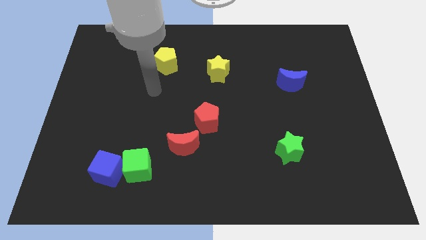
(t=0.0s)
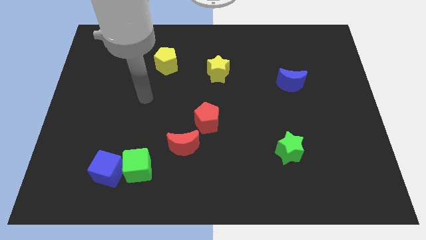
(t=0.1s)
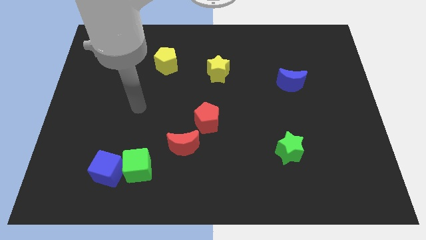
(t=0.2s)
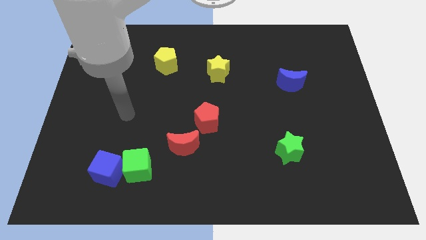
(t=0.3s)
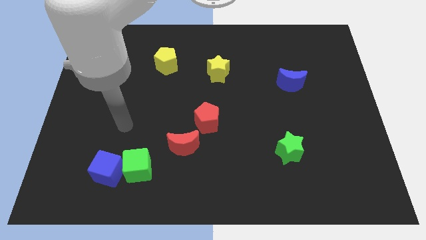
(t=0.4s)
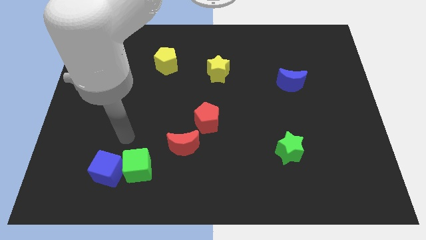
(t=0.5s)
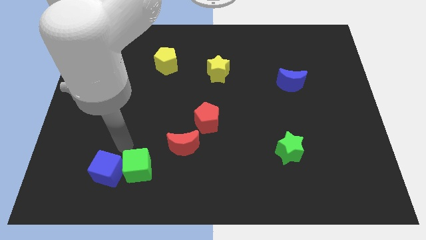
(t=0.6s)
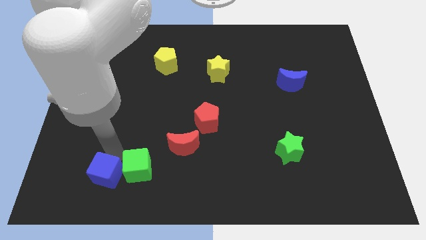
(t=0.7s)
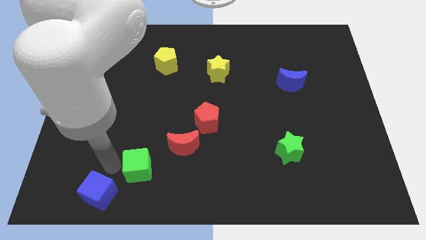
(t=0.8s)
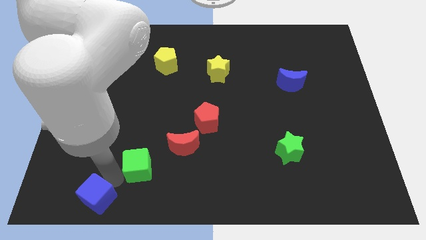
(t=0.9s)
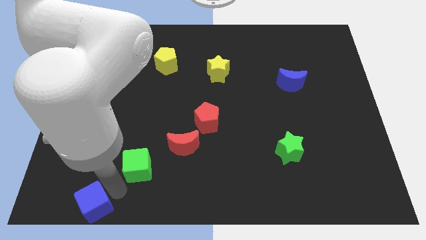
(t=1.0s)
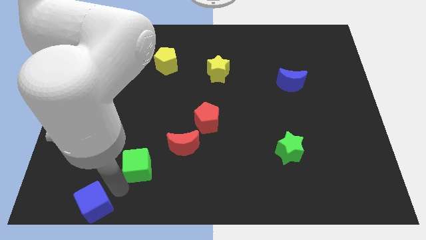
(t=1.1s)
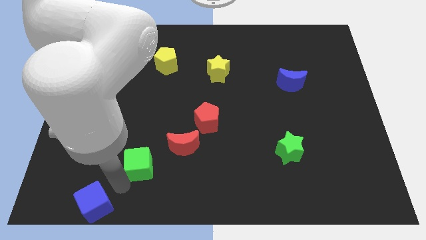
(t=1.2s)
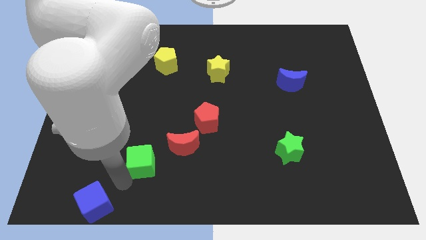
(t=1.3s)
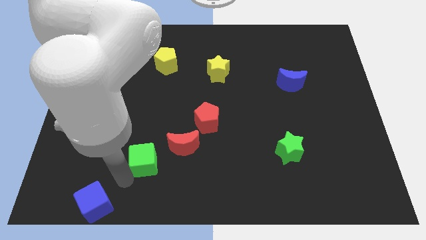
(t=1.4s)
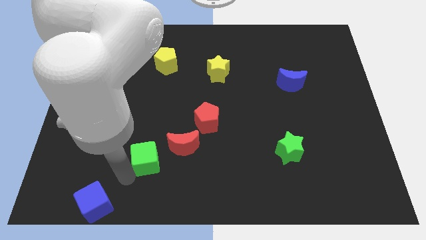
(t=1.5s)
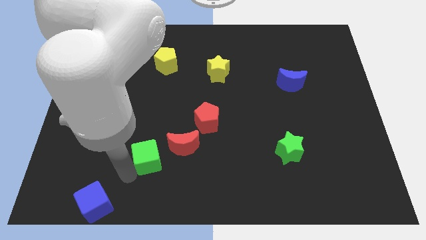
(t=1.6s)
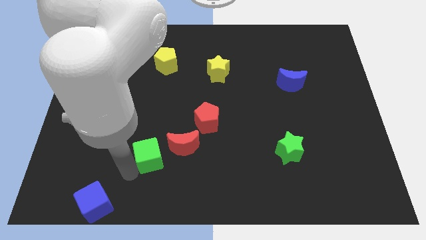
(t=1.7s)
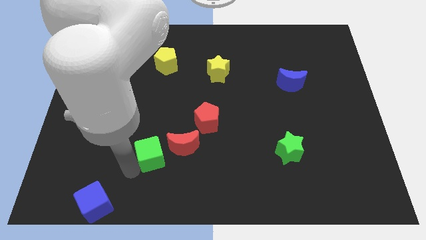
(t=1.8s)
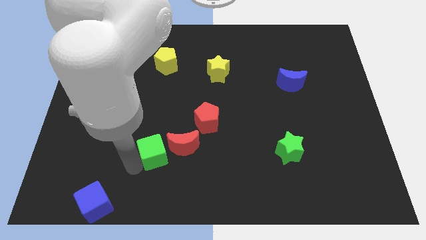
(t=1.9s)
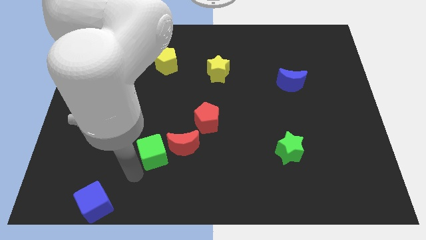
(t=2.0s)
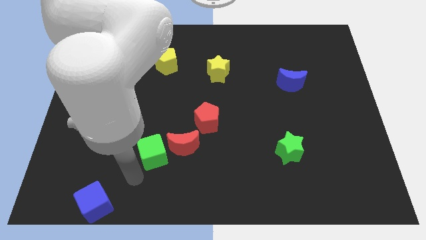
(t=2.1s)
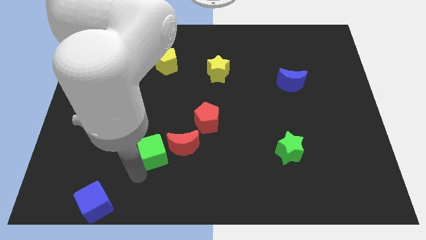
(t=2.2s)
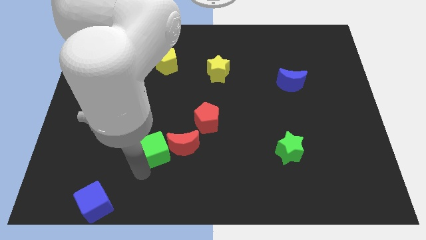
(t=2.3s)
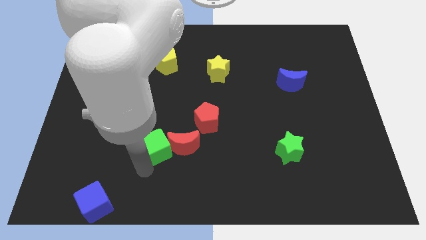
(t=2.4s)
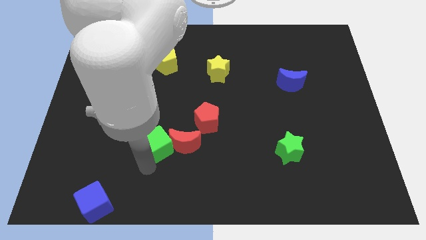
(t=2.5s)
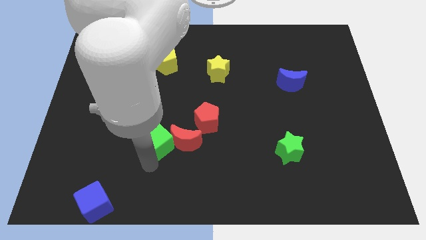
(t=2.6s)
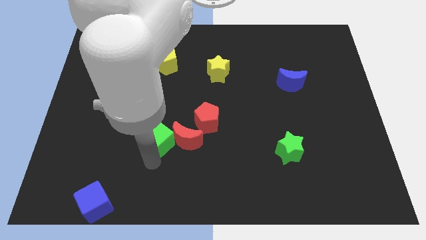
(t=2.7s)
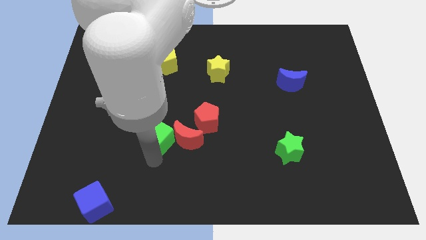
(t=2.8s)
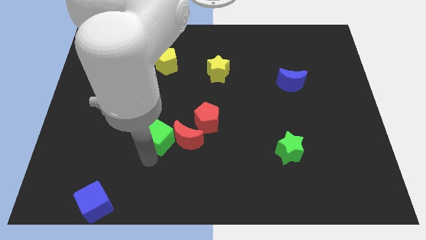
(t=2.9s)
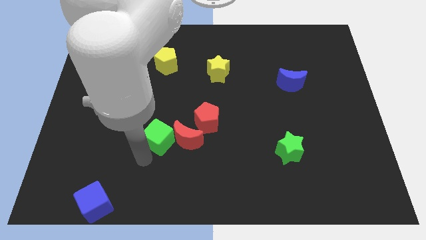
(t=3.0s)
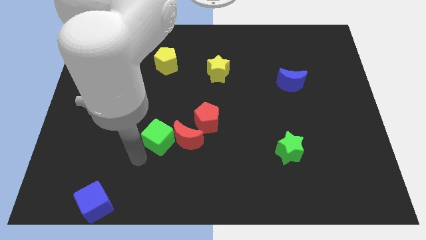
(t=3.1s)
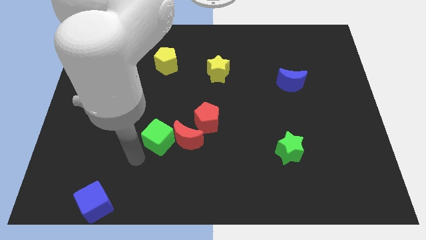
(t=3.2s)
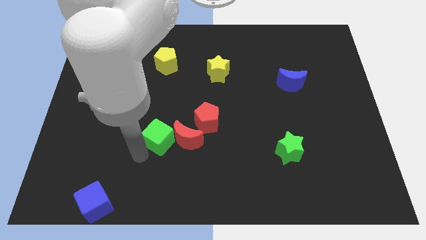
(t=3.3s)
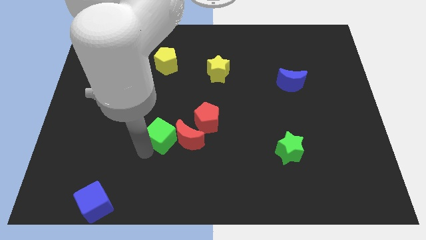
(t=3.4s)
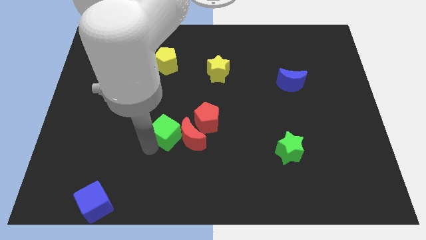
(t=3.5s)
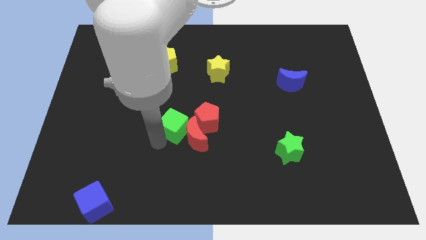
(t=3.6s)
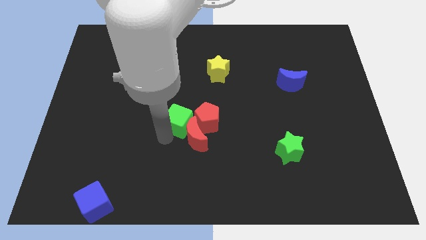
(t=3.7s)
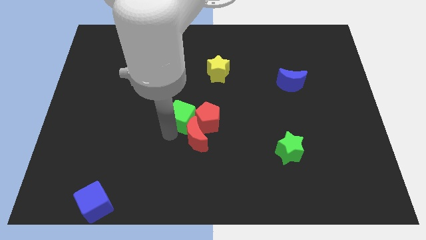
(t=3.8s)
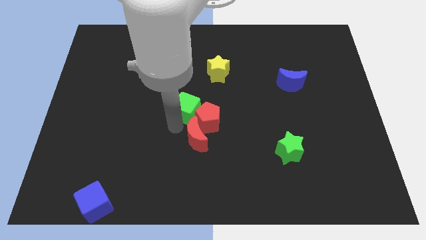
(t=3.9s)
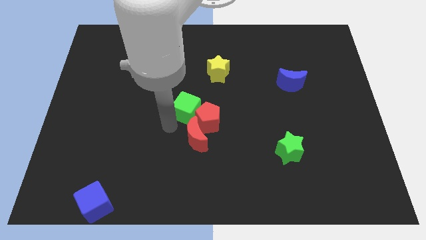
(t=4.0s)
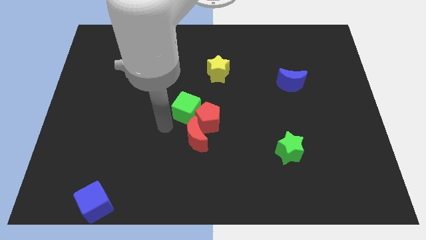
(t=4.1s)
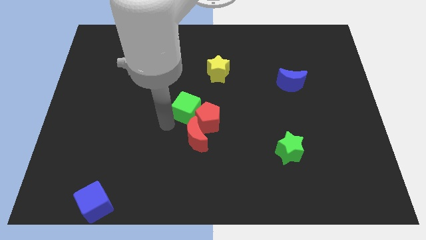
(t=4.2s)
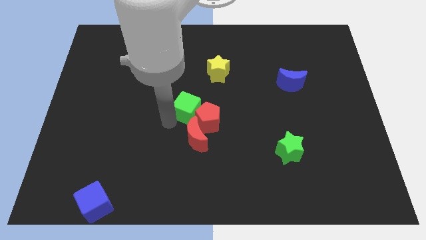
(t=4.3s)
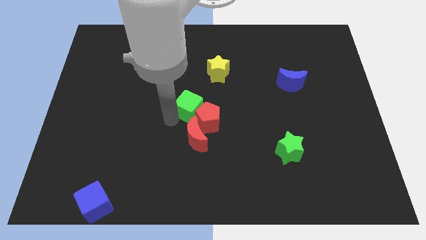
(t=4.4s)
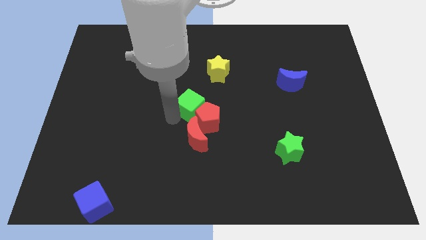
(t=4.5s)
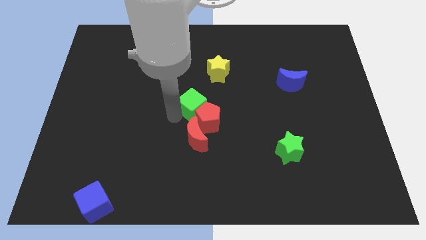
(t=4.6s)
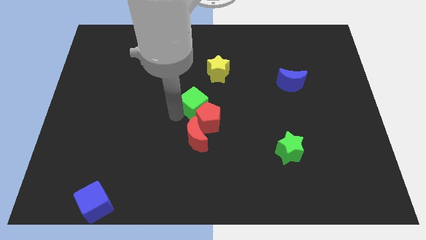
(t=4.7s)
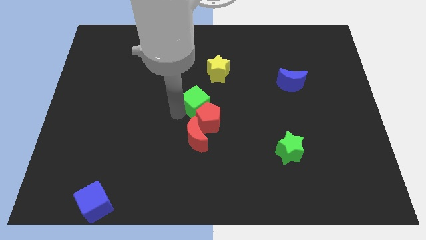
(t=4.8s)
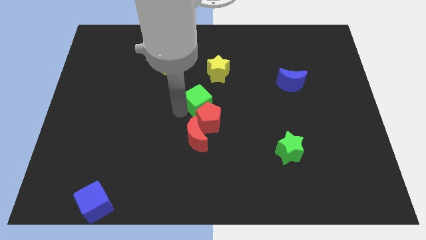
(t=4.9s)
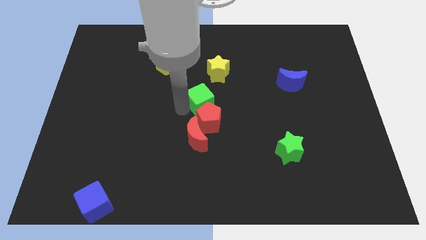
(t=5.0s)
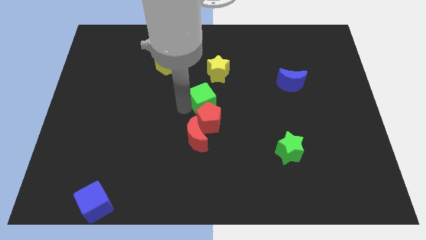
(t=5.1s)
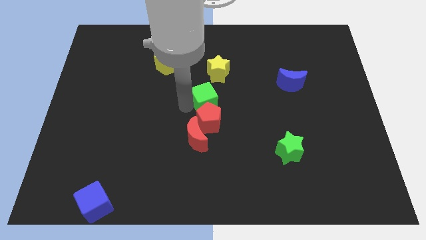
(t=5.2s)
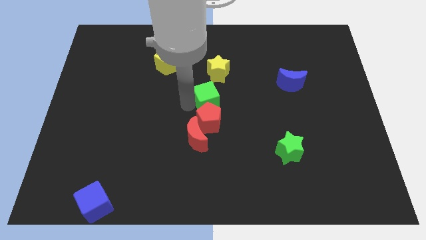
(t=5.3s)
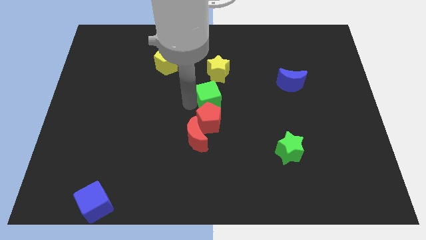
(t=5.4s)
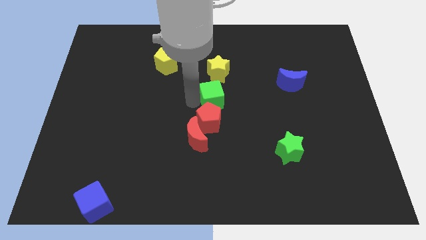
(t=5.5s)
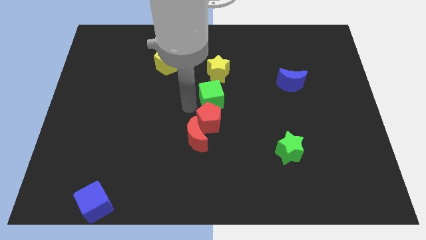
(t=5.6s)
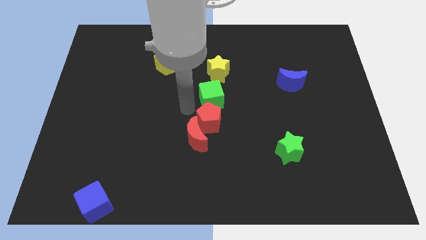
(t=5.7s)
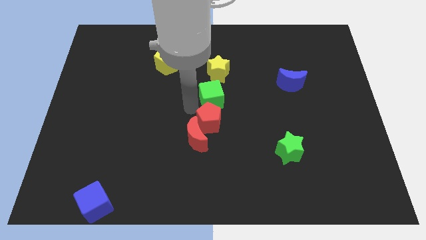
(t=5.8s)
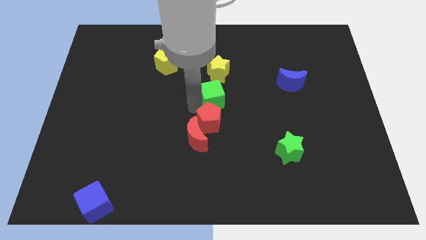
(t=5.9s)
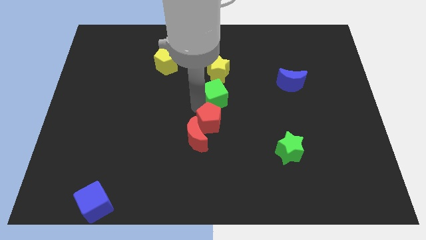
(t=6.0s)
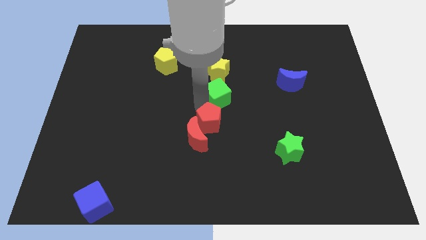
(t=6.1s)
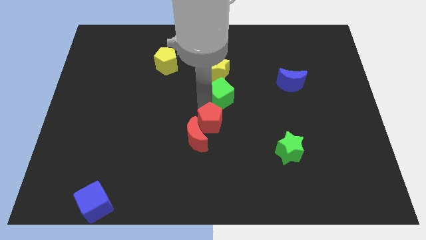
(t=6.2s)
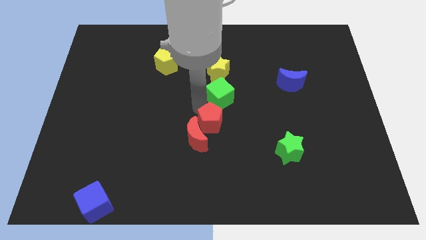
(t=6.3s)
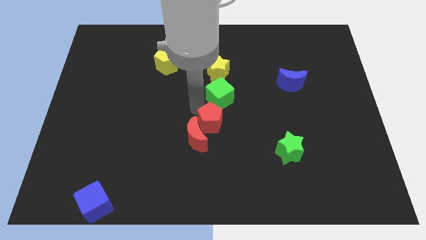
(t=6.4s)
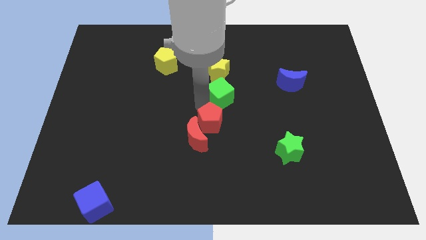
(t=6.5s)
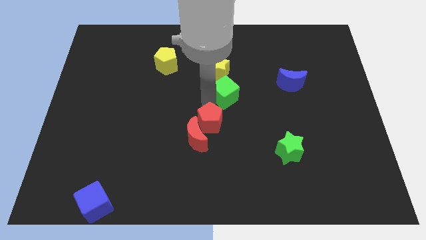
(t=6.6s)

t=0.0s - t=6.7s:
push the green cube to the bottom right side of the yellow star

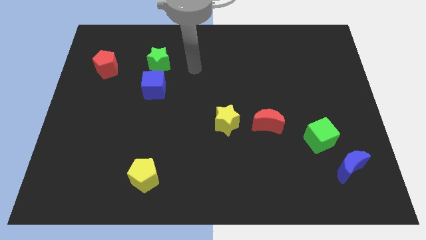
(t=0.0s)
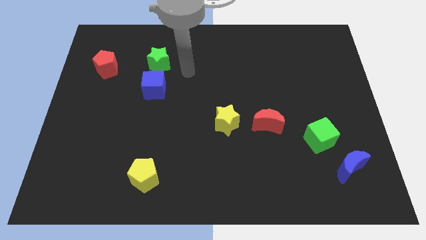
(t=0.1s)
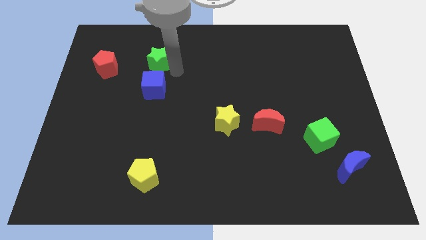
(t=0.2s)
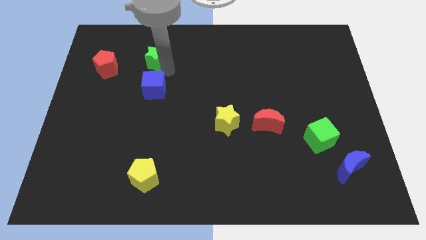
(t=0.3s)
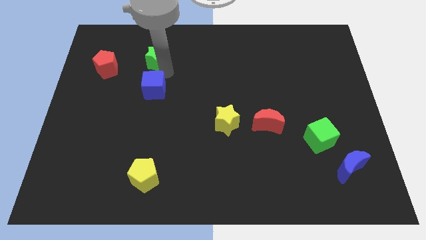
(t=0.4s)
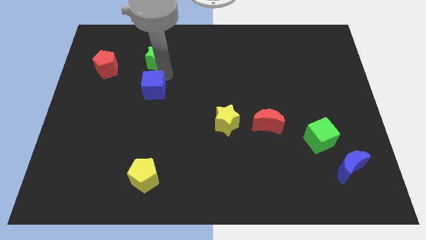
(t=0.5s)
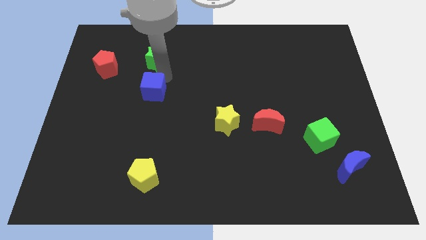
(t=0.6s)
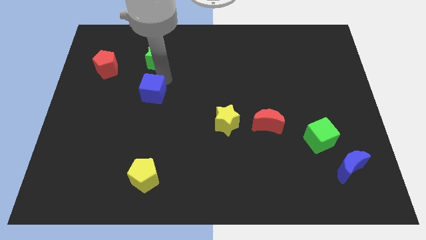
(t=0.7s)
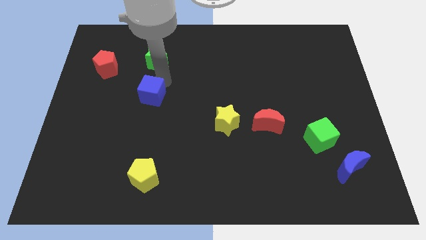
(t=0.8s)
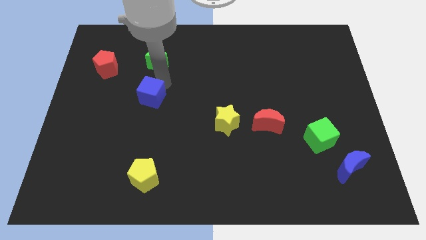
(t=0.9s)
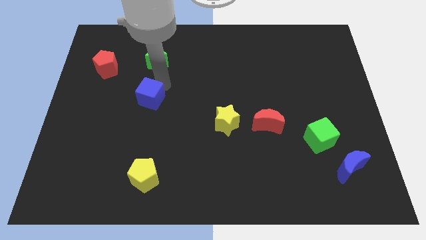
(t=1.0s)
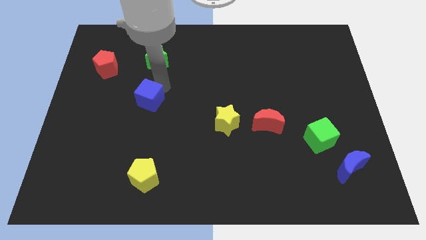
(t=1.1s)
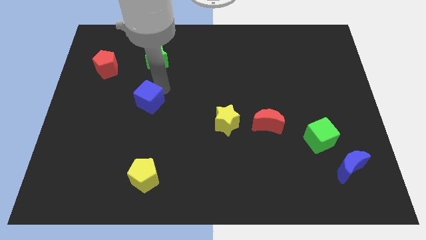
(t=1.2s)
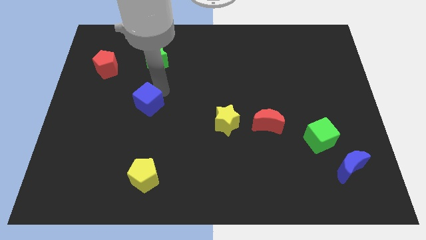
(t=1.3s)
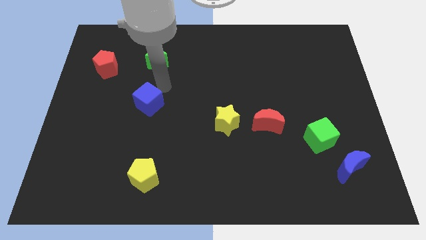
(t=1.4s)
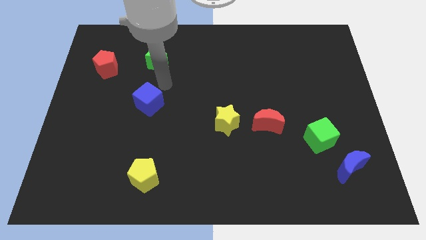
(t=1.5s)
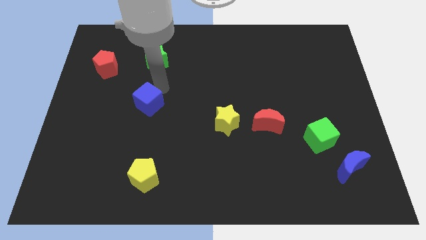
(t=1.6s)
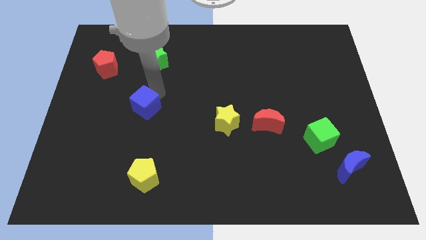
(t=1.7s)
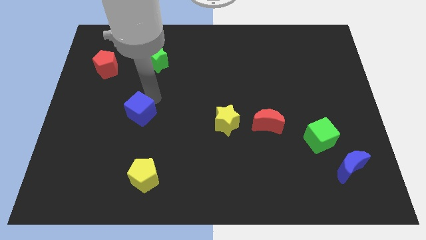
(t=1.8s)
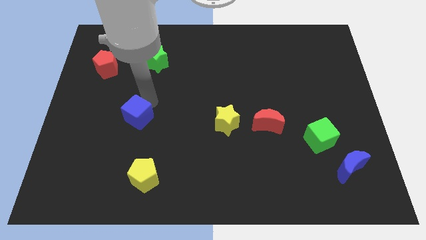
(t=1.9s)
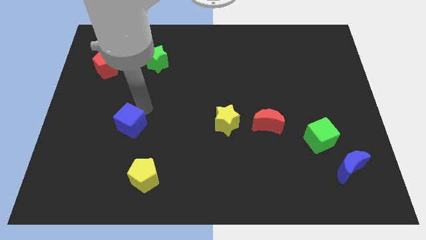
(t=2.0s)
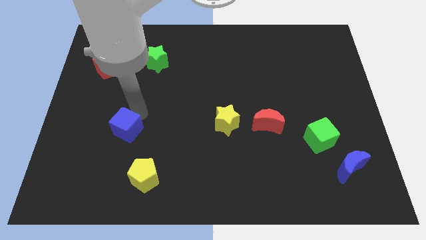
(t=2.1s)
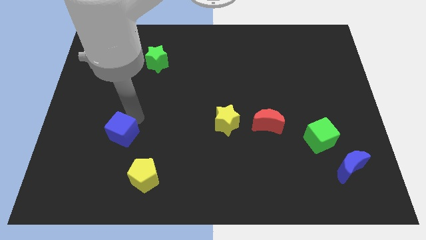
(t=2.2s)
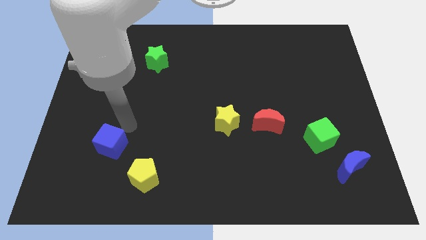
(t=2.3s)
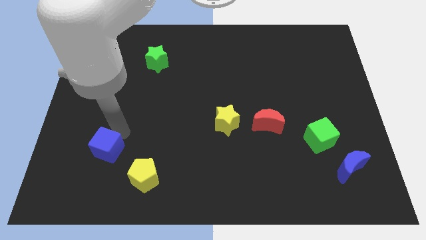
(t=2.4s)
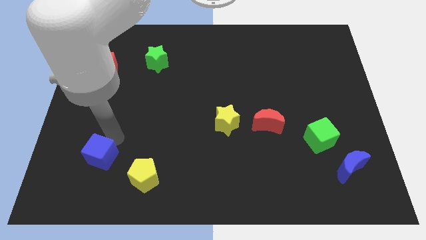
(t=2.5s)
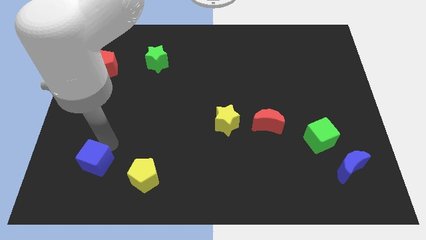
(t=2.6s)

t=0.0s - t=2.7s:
put the blue cube to the left of the yellow pentagon
